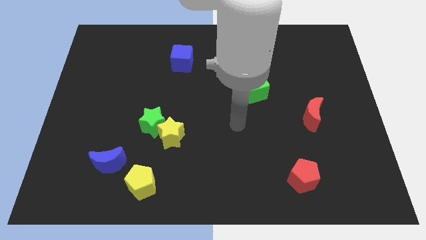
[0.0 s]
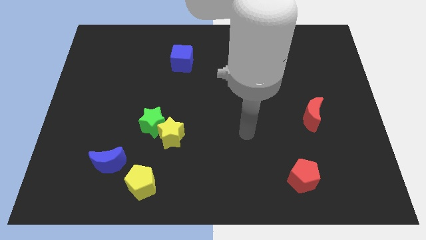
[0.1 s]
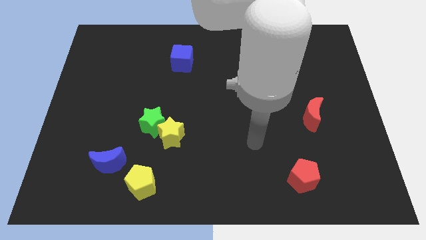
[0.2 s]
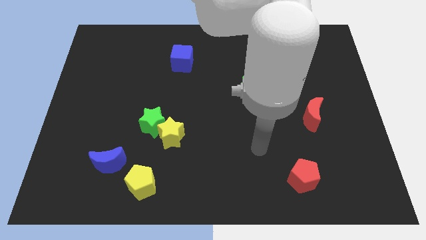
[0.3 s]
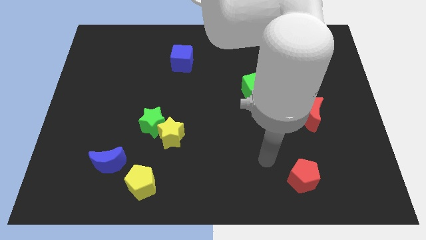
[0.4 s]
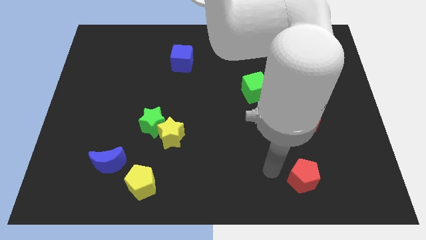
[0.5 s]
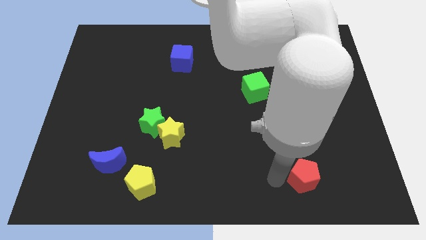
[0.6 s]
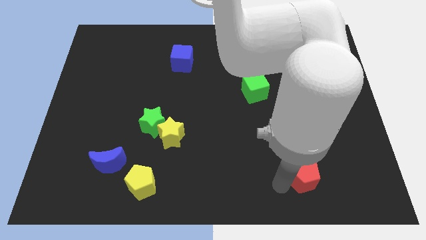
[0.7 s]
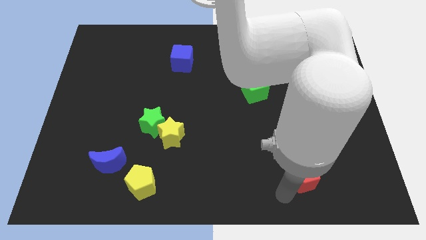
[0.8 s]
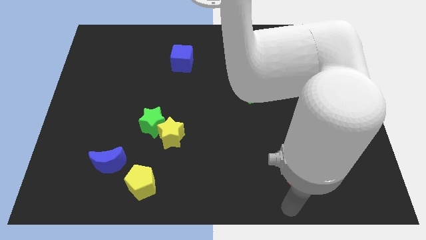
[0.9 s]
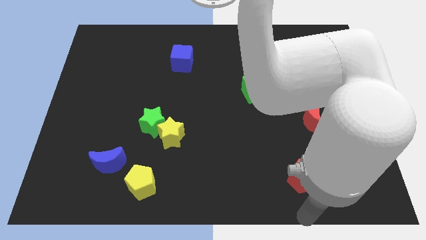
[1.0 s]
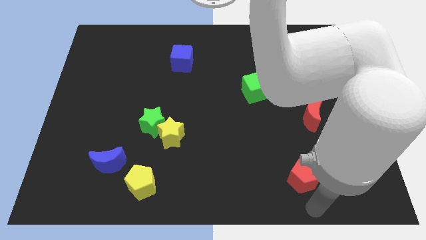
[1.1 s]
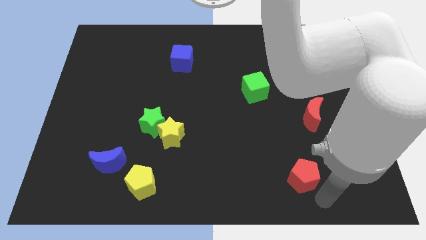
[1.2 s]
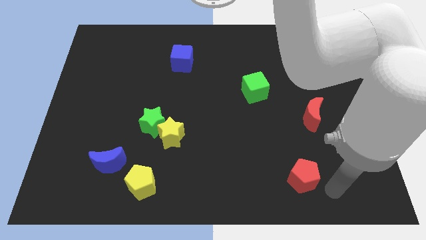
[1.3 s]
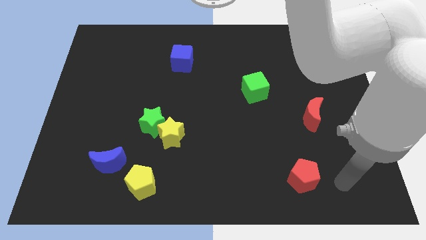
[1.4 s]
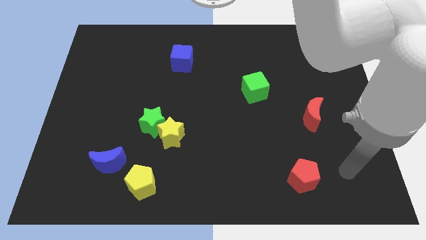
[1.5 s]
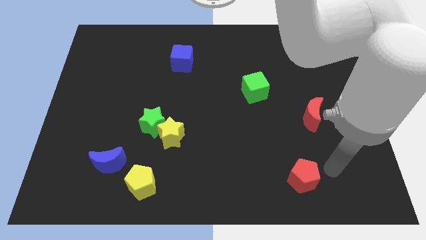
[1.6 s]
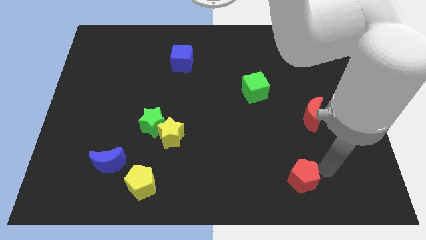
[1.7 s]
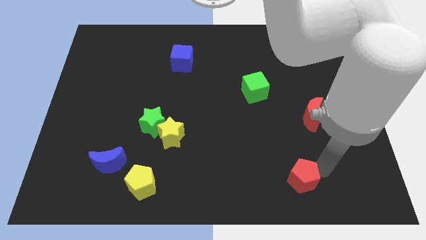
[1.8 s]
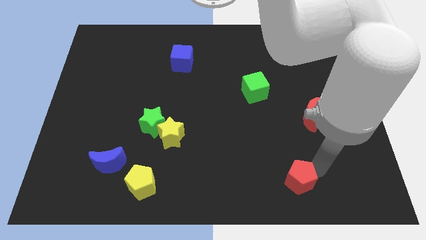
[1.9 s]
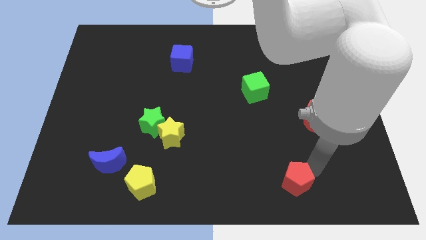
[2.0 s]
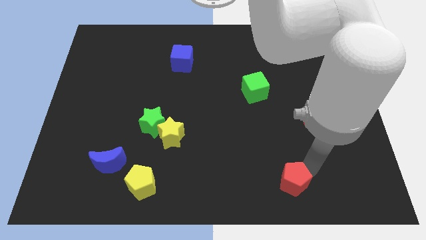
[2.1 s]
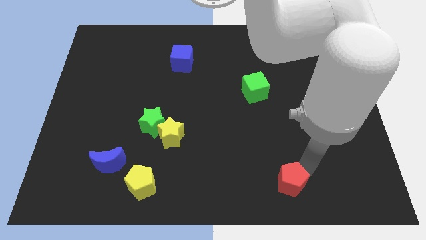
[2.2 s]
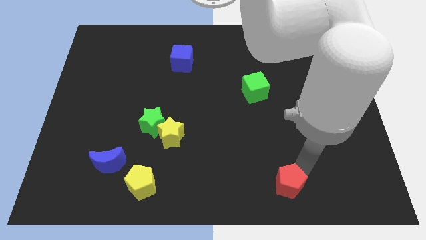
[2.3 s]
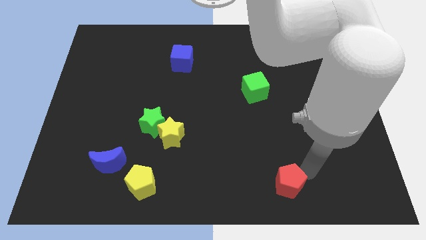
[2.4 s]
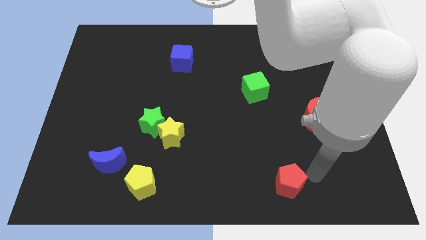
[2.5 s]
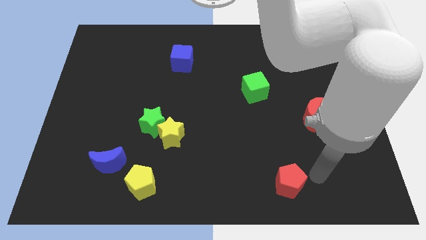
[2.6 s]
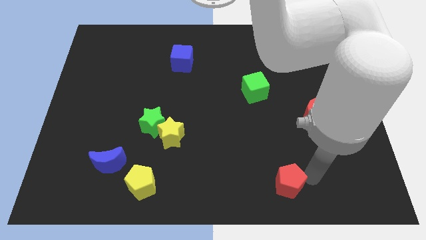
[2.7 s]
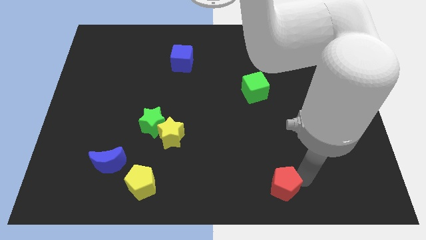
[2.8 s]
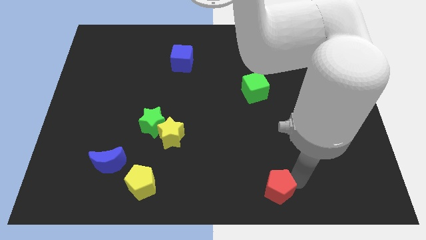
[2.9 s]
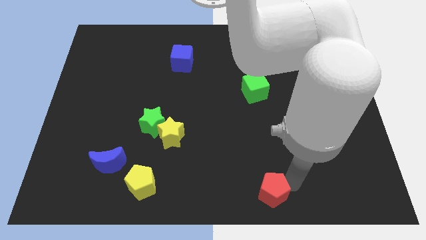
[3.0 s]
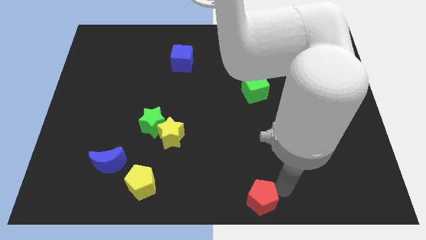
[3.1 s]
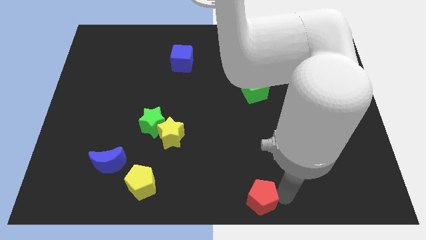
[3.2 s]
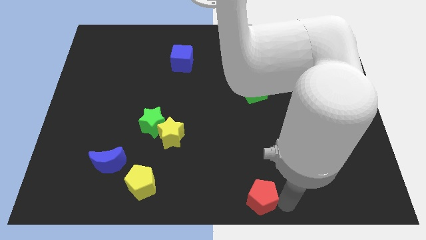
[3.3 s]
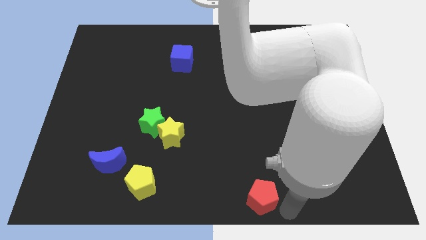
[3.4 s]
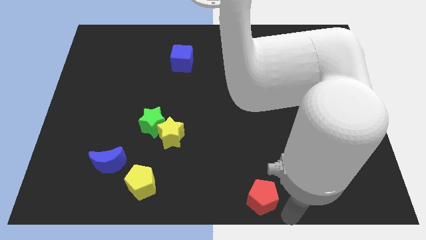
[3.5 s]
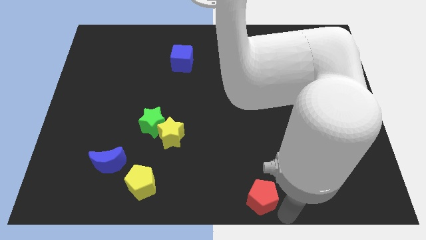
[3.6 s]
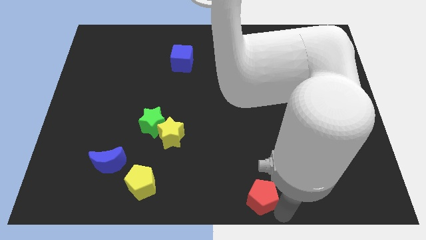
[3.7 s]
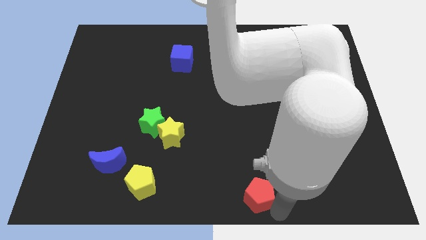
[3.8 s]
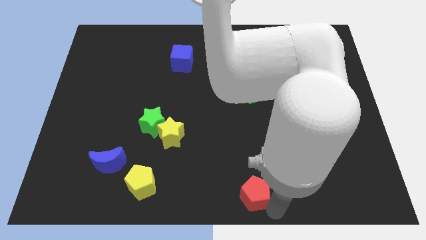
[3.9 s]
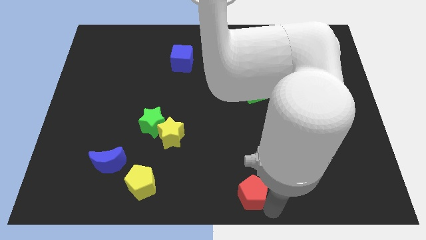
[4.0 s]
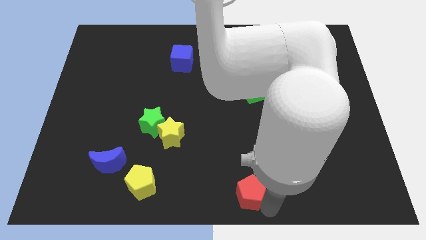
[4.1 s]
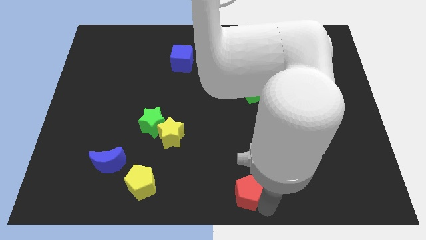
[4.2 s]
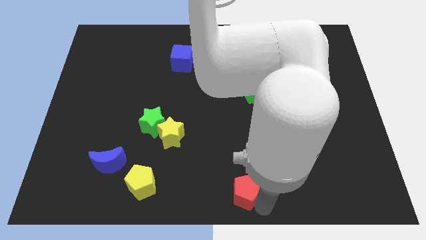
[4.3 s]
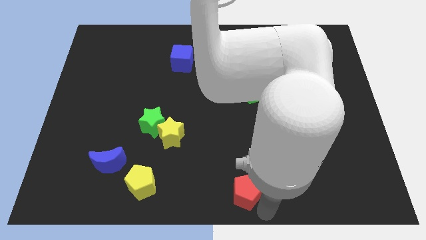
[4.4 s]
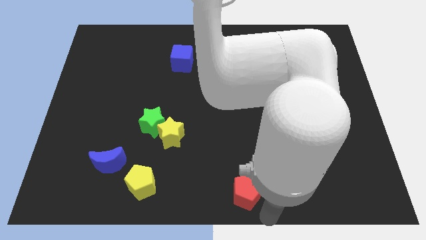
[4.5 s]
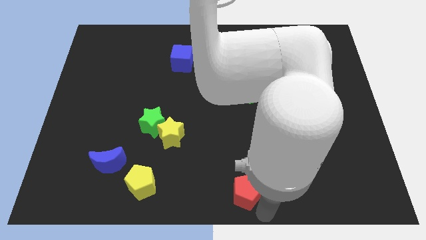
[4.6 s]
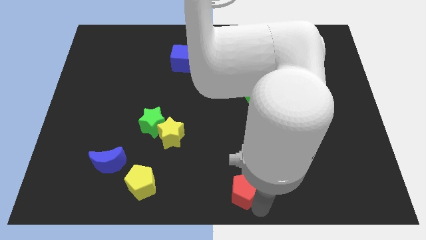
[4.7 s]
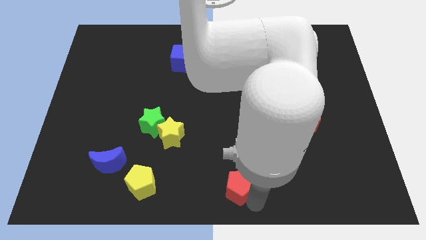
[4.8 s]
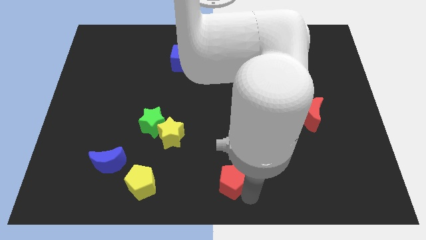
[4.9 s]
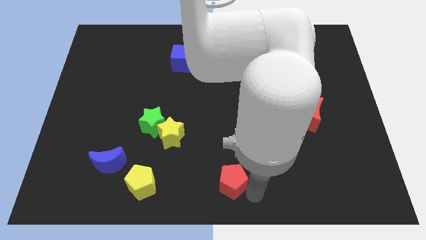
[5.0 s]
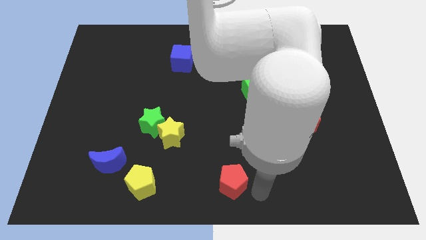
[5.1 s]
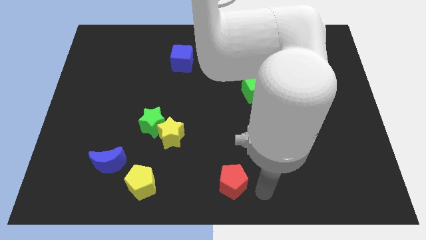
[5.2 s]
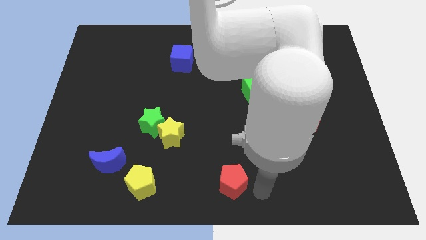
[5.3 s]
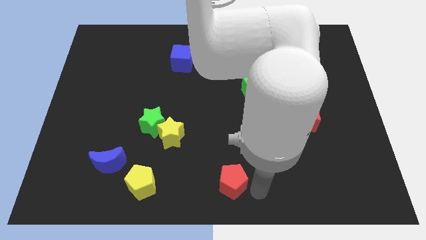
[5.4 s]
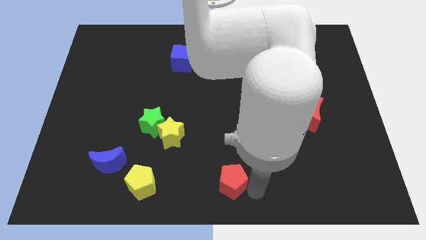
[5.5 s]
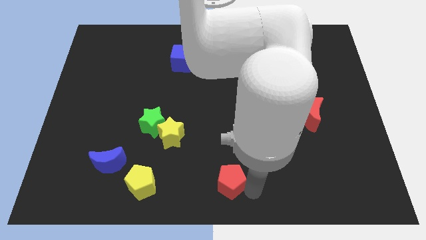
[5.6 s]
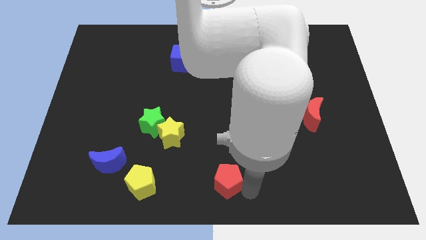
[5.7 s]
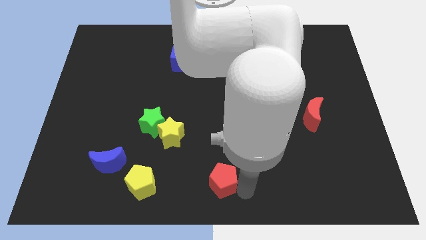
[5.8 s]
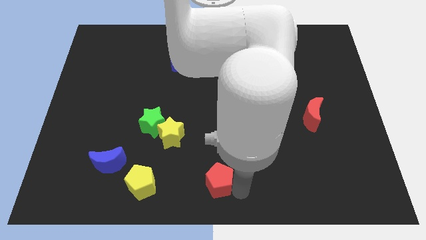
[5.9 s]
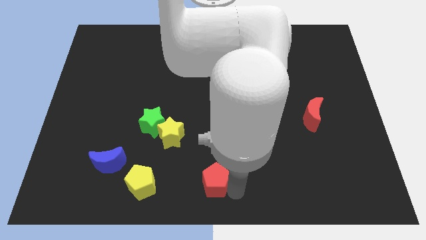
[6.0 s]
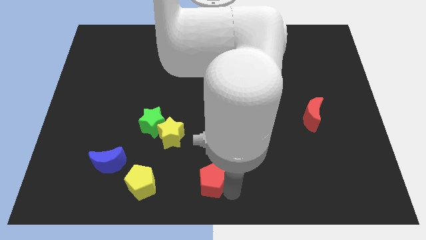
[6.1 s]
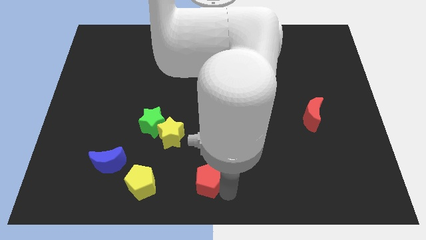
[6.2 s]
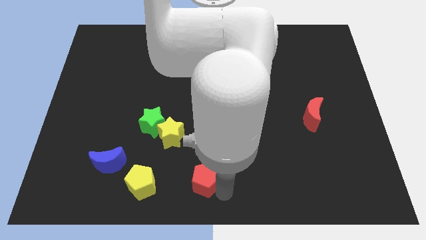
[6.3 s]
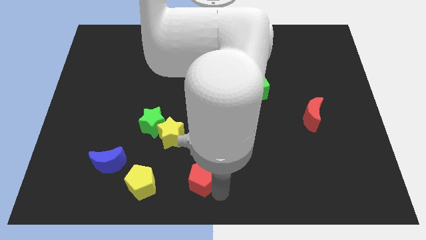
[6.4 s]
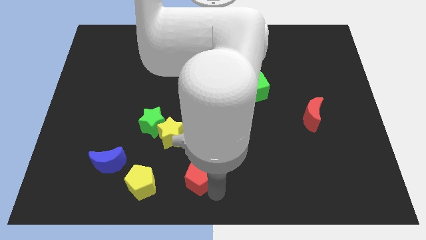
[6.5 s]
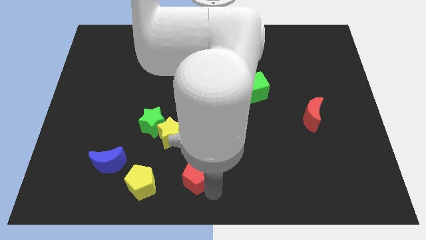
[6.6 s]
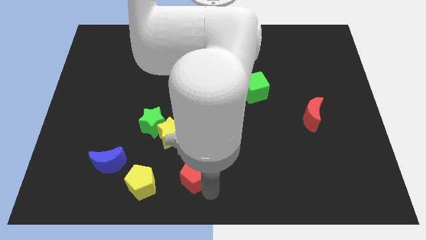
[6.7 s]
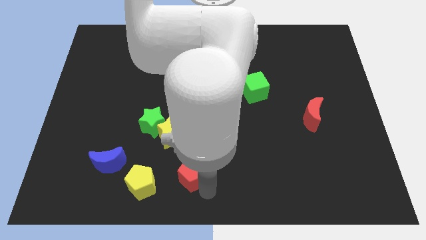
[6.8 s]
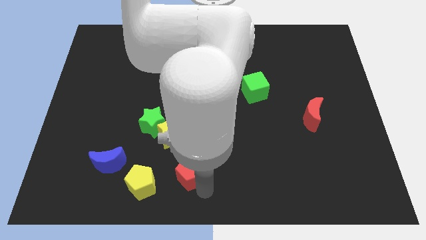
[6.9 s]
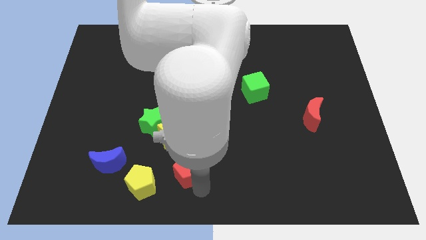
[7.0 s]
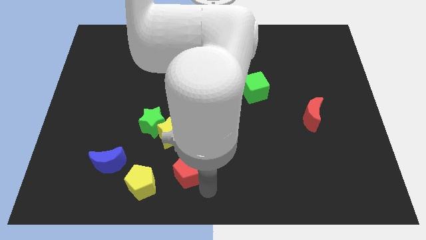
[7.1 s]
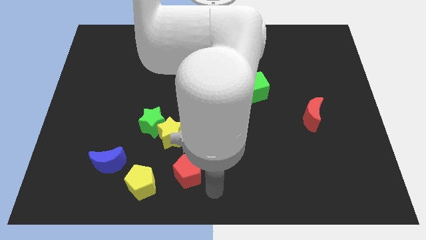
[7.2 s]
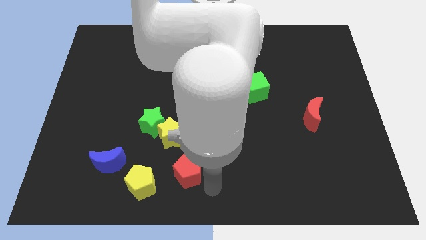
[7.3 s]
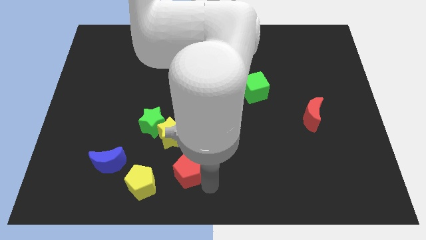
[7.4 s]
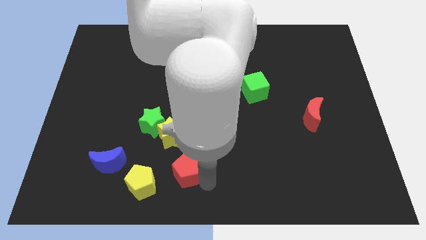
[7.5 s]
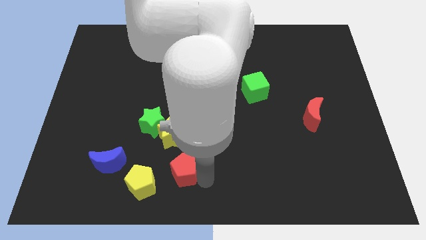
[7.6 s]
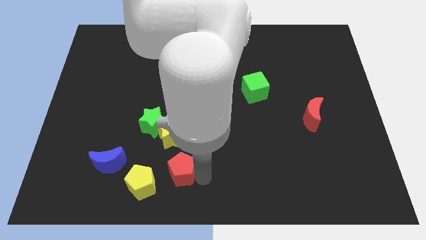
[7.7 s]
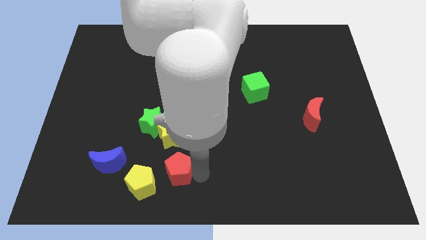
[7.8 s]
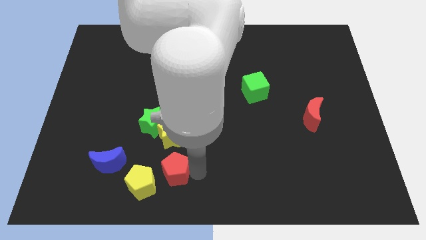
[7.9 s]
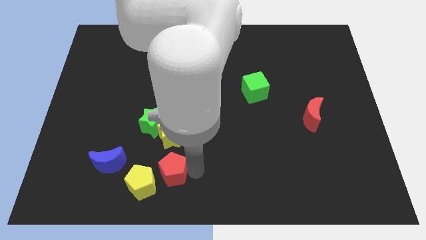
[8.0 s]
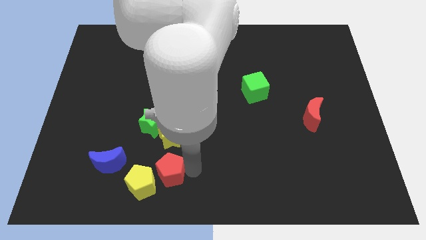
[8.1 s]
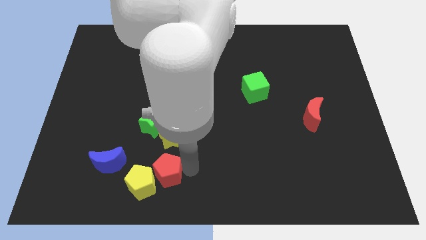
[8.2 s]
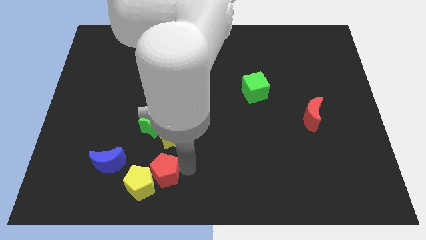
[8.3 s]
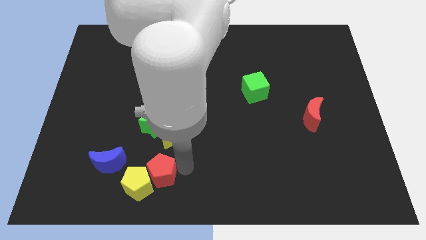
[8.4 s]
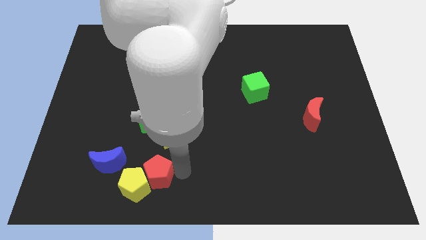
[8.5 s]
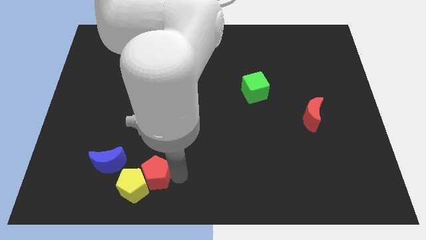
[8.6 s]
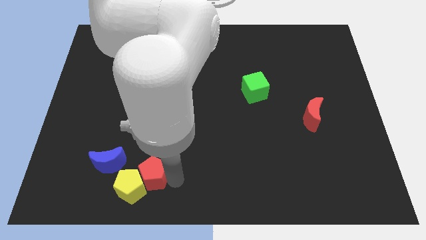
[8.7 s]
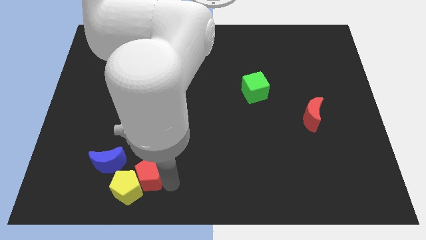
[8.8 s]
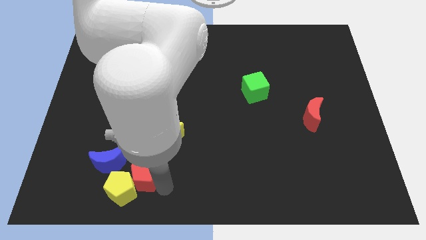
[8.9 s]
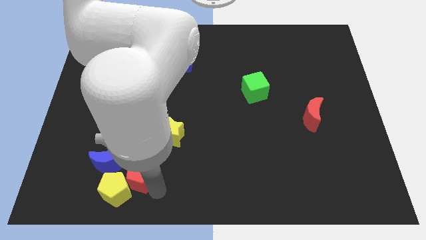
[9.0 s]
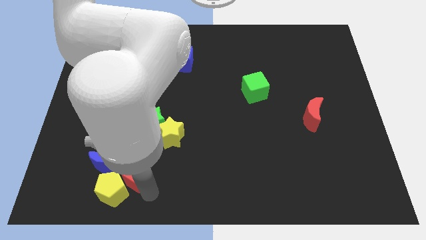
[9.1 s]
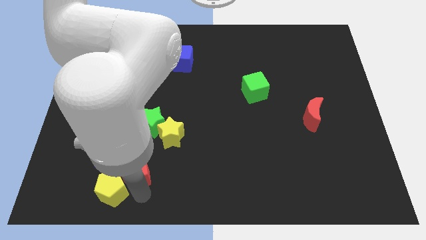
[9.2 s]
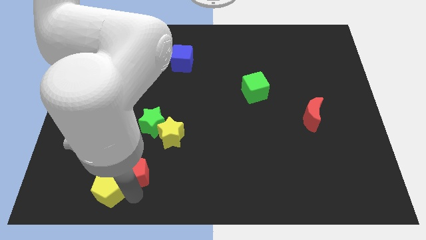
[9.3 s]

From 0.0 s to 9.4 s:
slide the red pentagon towards the blue moon
